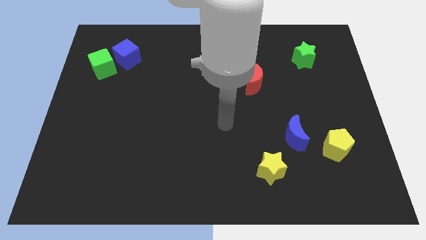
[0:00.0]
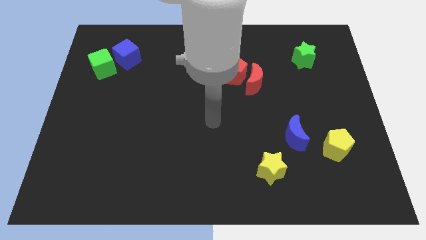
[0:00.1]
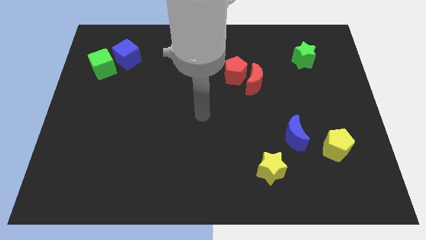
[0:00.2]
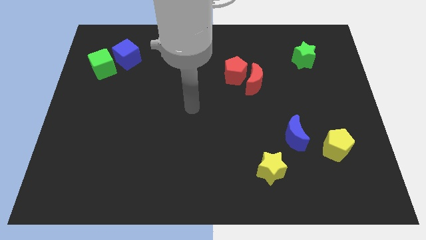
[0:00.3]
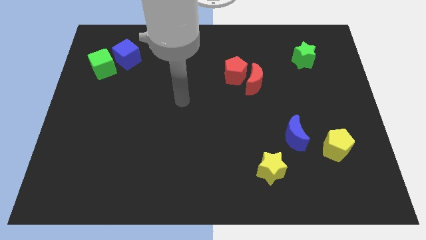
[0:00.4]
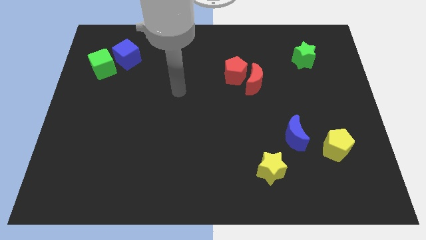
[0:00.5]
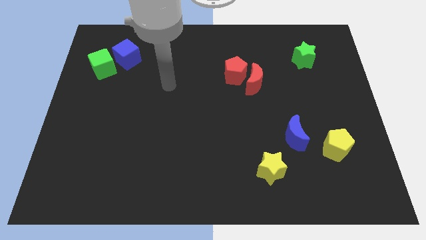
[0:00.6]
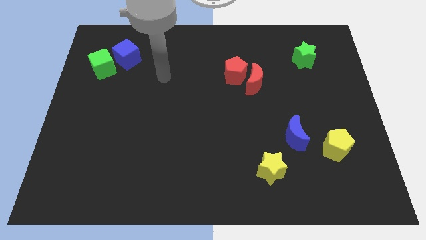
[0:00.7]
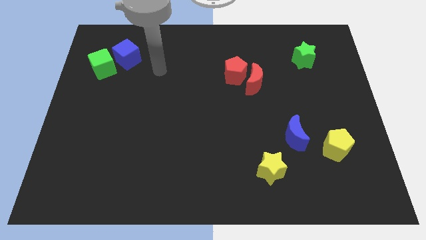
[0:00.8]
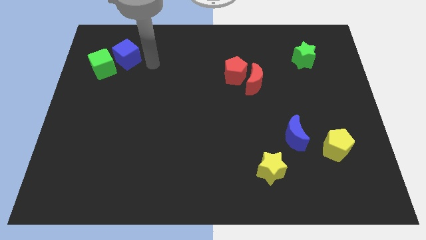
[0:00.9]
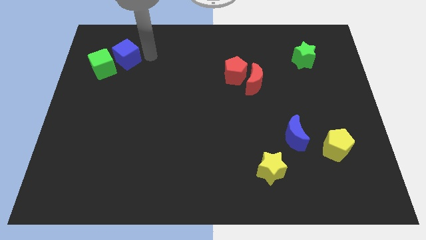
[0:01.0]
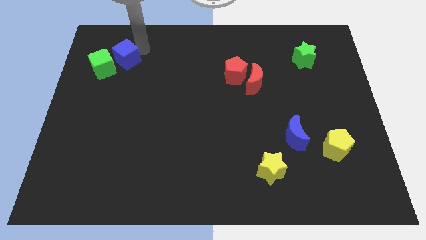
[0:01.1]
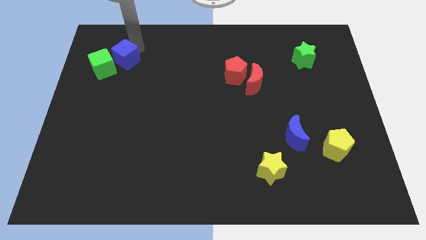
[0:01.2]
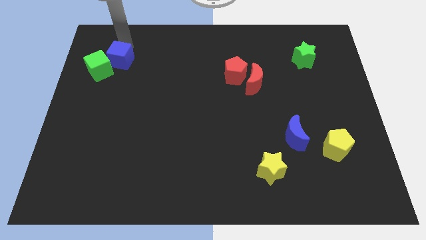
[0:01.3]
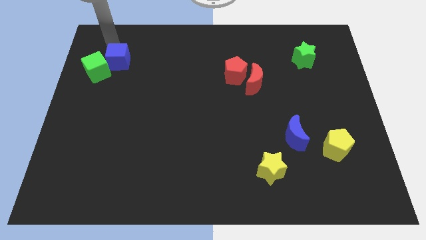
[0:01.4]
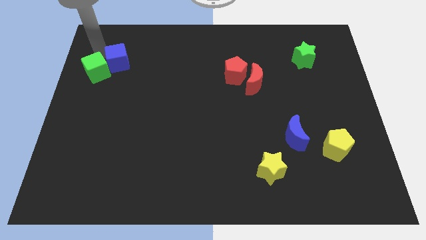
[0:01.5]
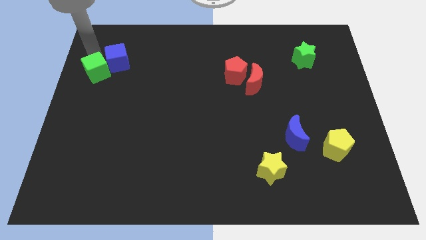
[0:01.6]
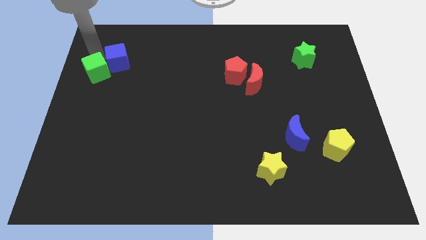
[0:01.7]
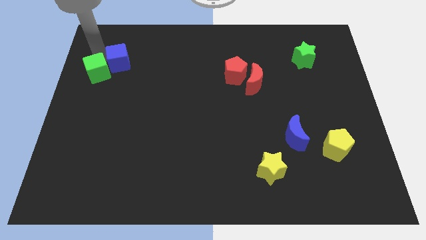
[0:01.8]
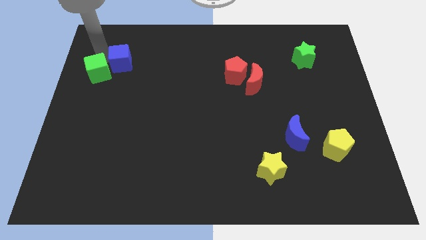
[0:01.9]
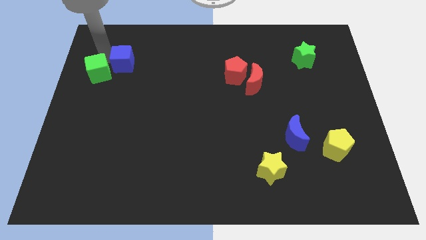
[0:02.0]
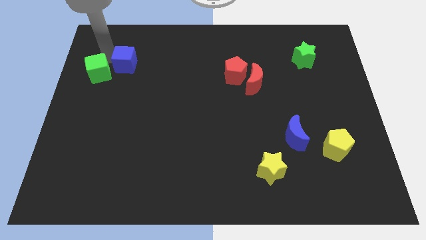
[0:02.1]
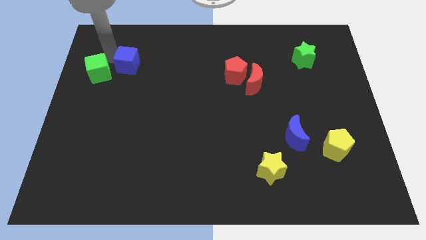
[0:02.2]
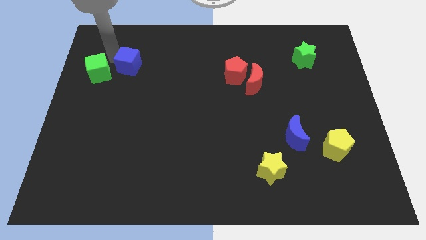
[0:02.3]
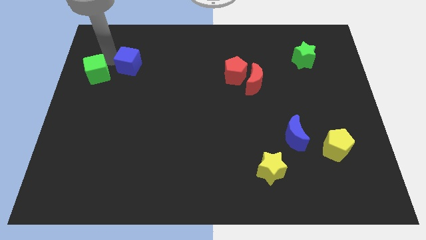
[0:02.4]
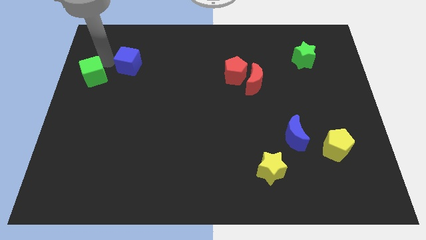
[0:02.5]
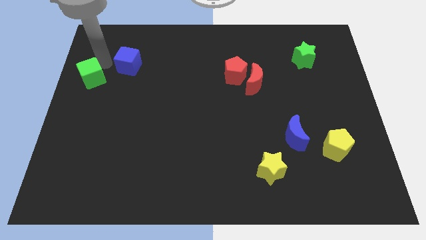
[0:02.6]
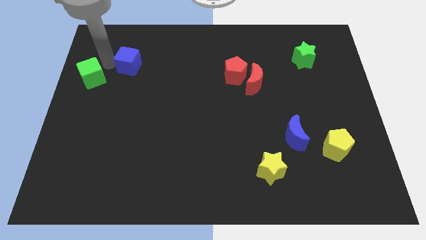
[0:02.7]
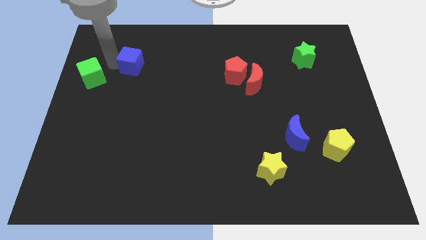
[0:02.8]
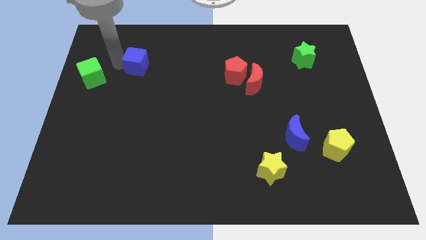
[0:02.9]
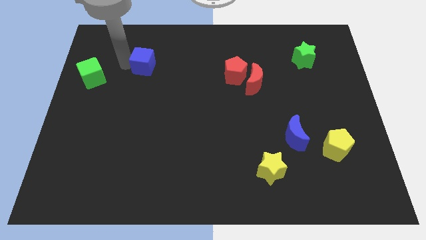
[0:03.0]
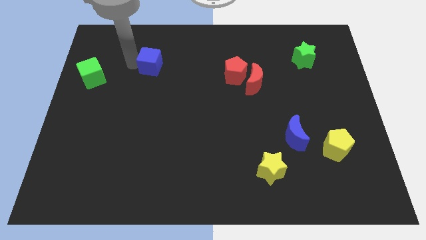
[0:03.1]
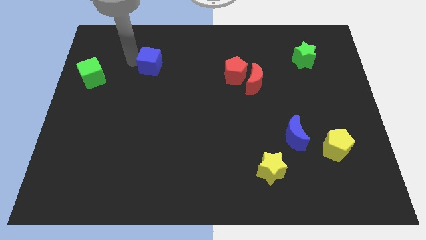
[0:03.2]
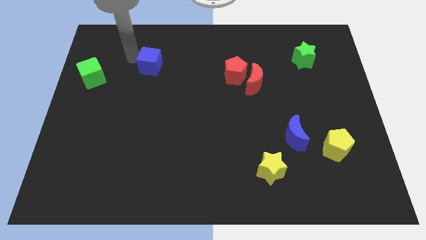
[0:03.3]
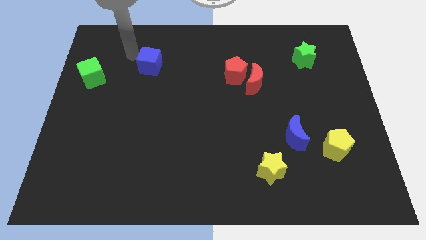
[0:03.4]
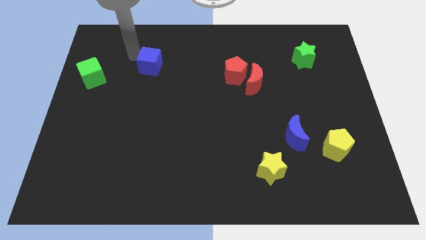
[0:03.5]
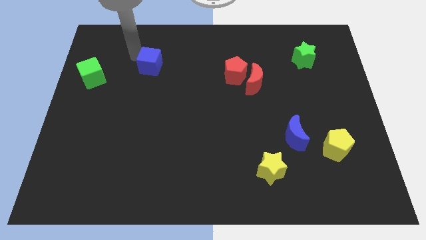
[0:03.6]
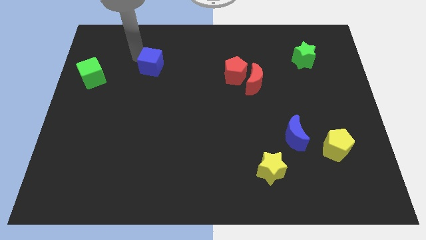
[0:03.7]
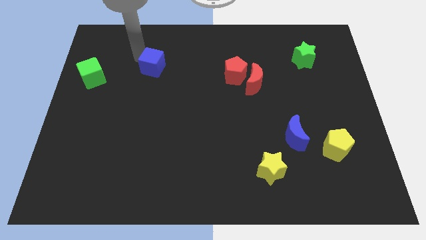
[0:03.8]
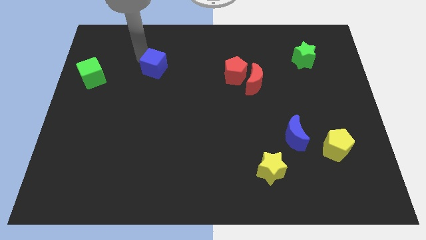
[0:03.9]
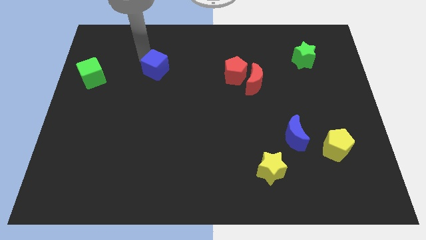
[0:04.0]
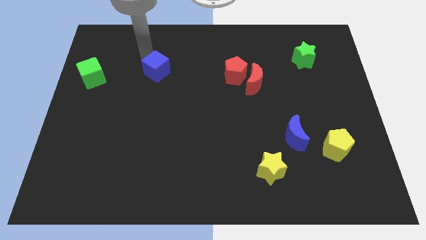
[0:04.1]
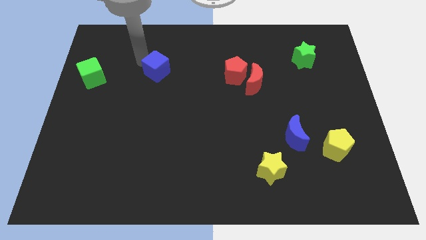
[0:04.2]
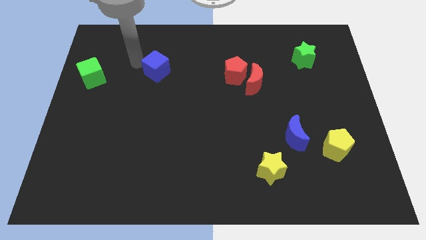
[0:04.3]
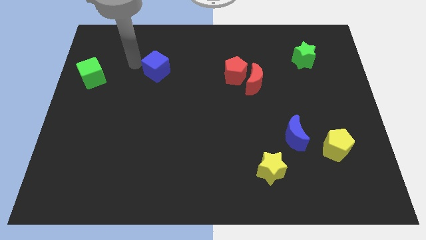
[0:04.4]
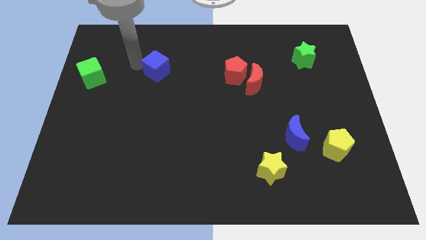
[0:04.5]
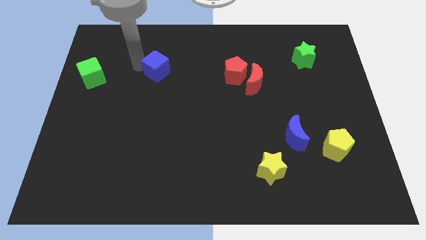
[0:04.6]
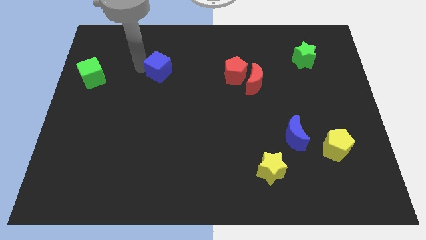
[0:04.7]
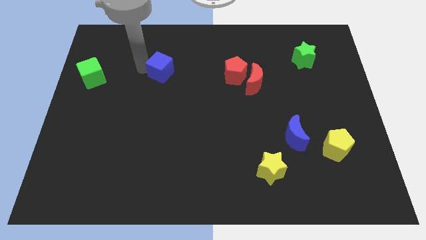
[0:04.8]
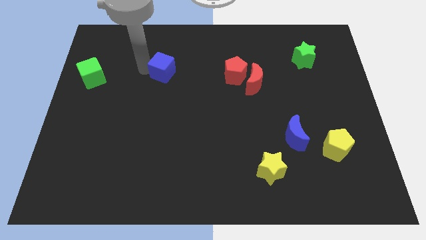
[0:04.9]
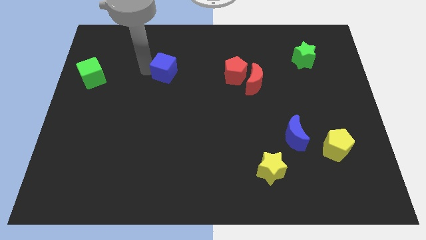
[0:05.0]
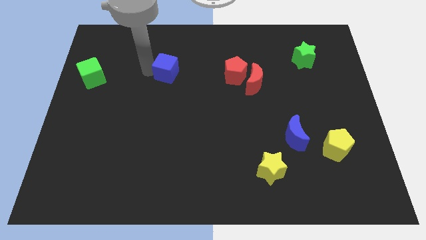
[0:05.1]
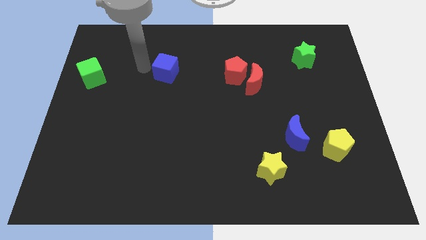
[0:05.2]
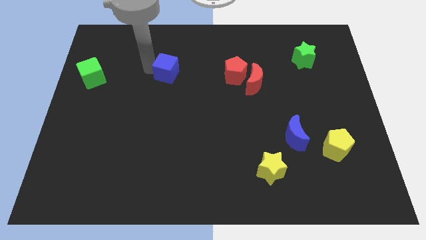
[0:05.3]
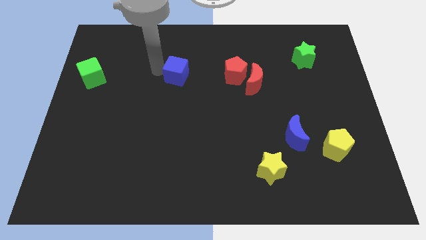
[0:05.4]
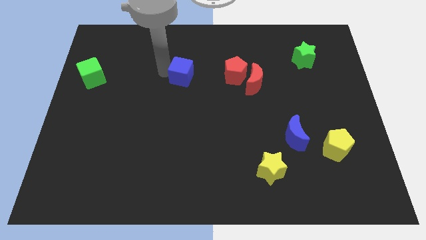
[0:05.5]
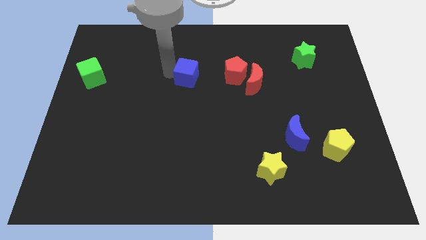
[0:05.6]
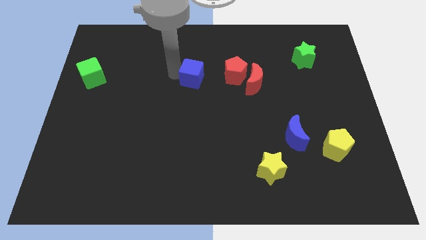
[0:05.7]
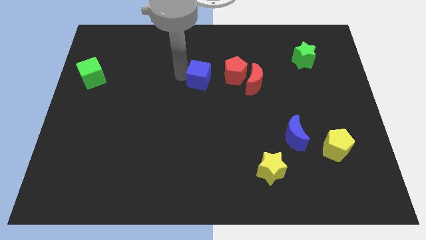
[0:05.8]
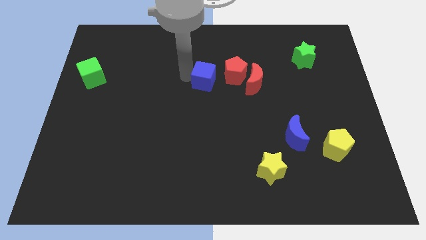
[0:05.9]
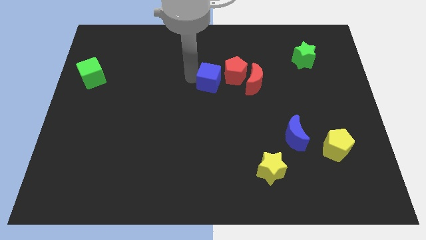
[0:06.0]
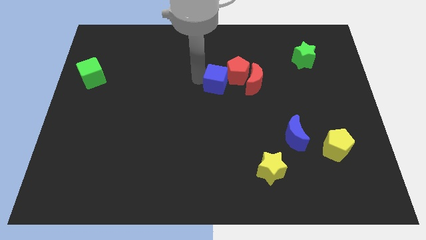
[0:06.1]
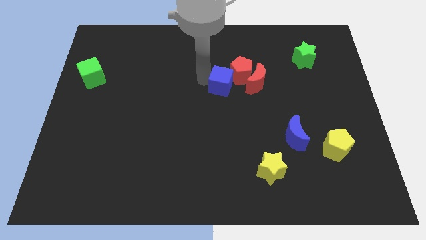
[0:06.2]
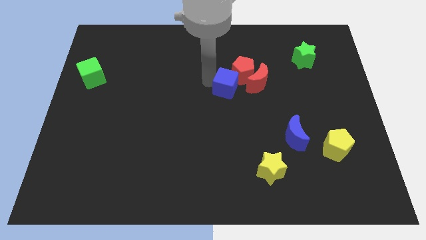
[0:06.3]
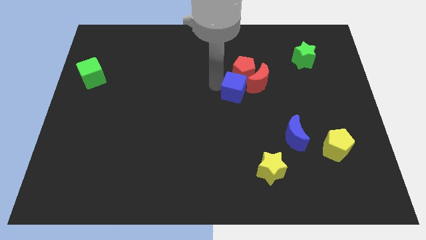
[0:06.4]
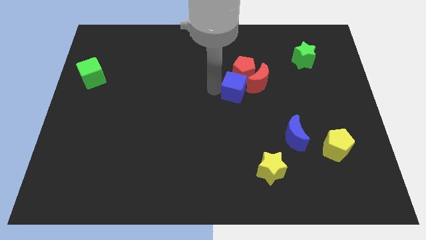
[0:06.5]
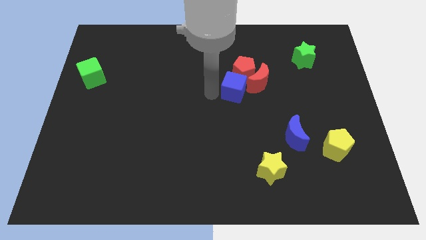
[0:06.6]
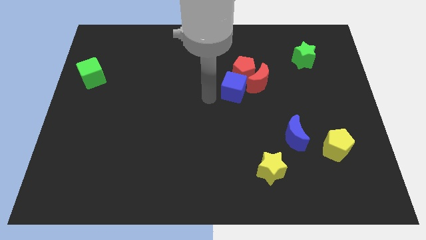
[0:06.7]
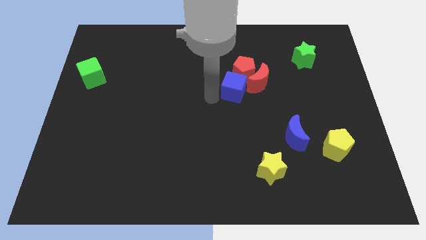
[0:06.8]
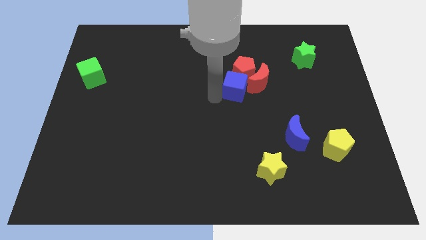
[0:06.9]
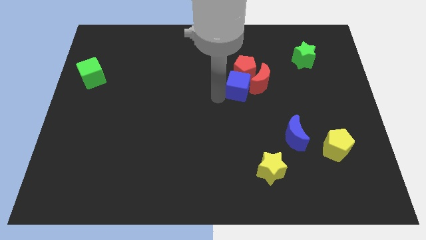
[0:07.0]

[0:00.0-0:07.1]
put the blue cube to the red moon

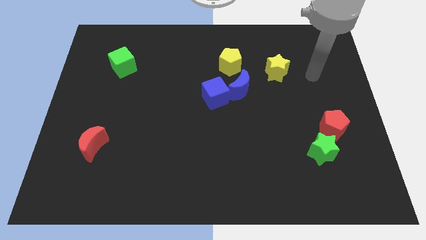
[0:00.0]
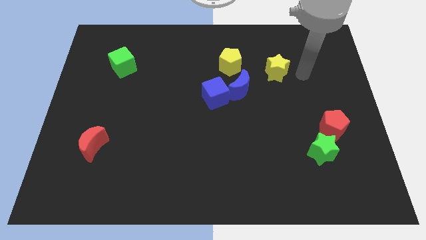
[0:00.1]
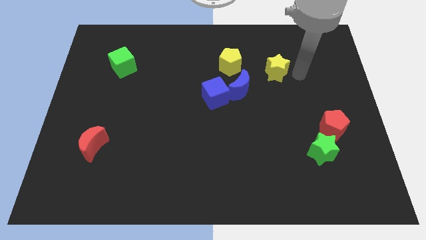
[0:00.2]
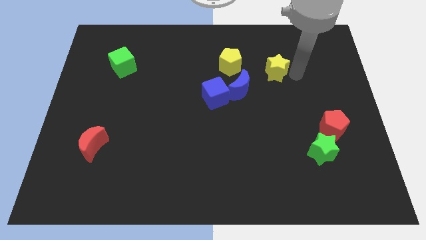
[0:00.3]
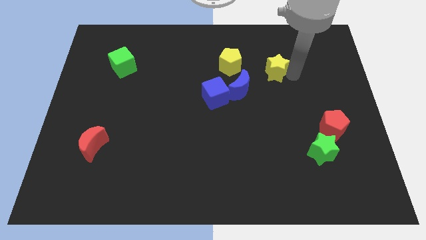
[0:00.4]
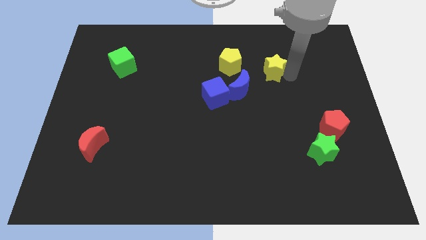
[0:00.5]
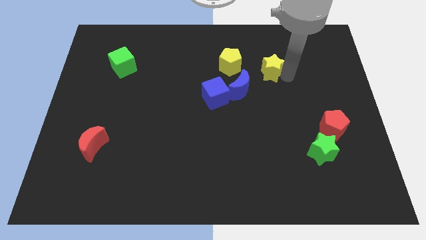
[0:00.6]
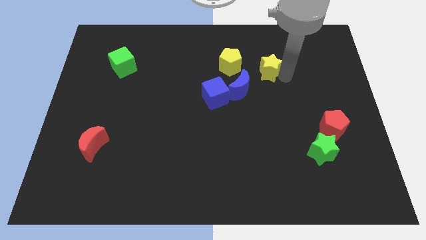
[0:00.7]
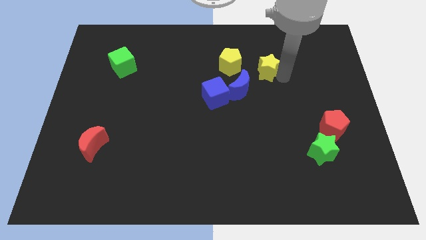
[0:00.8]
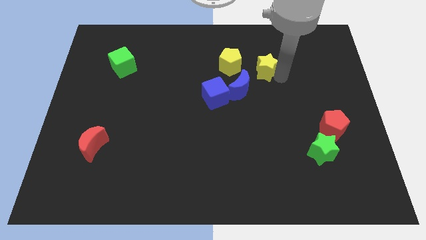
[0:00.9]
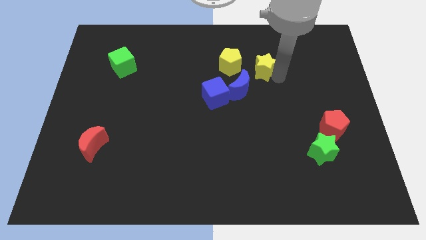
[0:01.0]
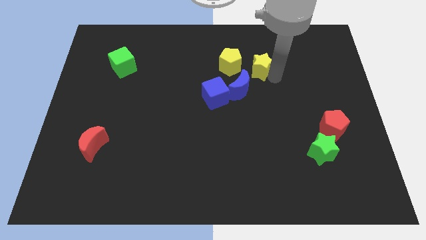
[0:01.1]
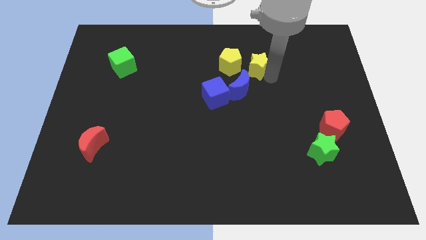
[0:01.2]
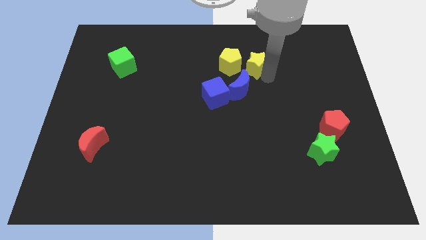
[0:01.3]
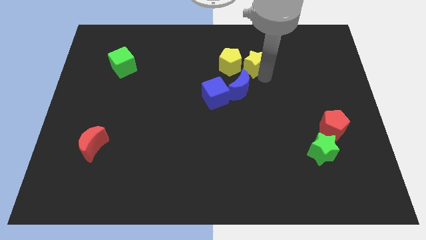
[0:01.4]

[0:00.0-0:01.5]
slide the yellow star close to the yellow pentagon
